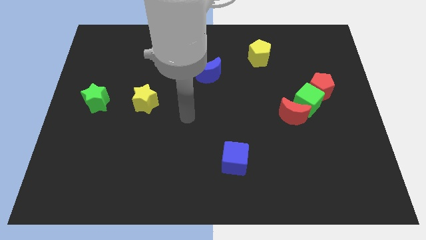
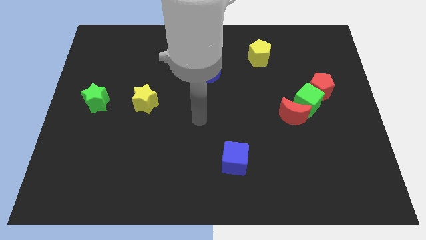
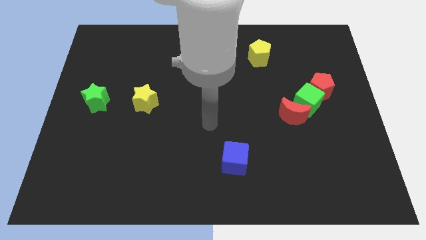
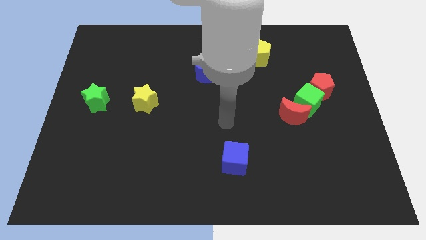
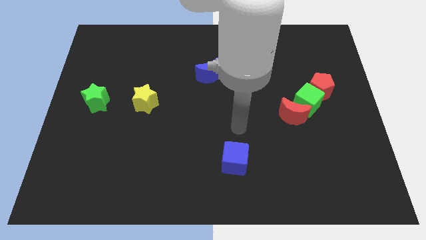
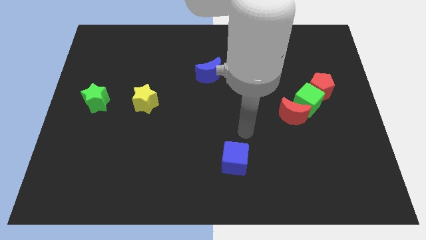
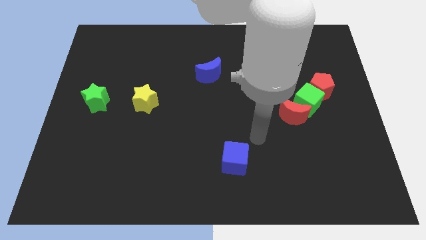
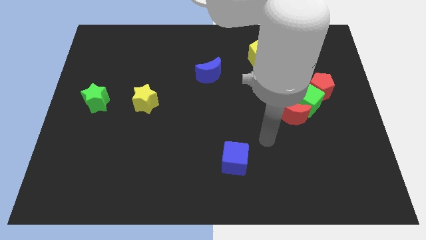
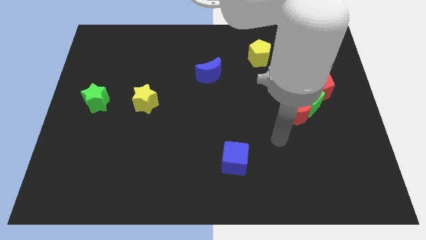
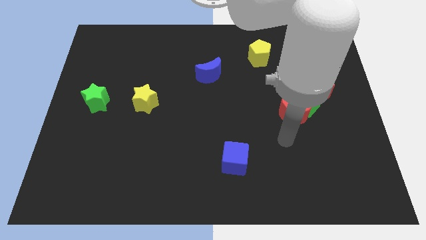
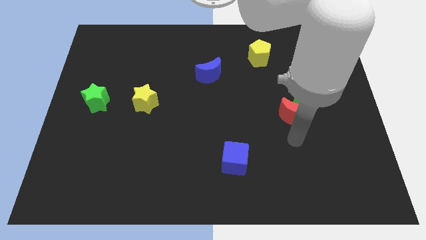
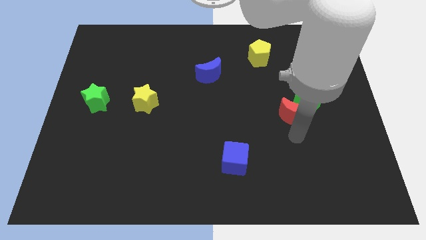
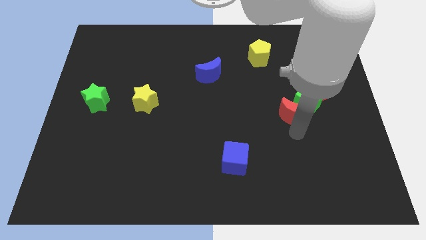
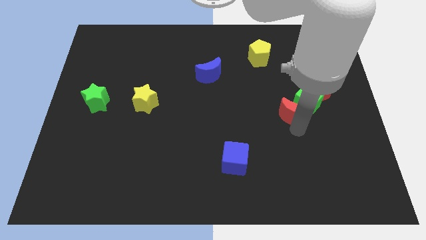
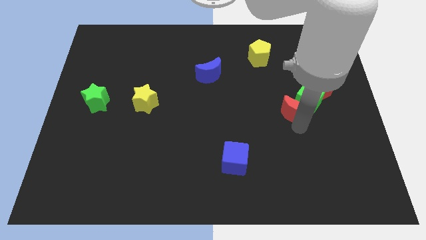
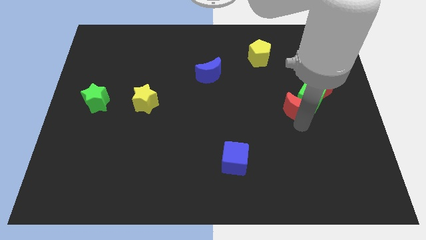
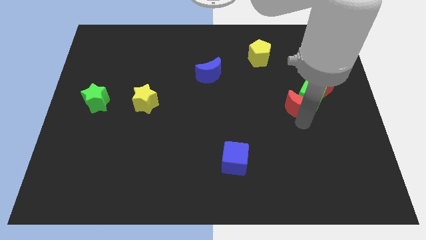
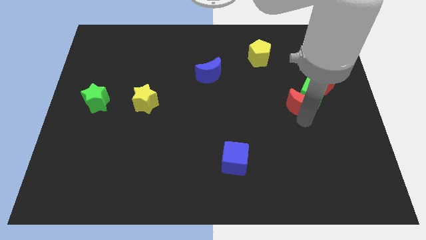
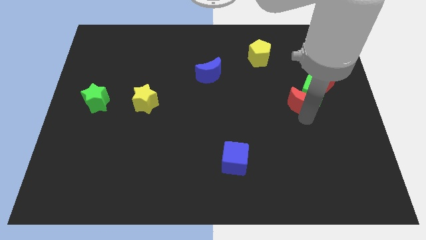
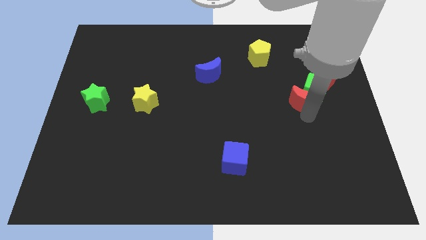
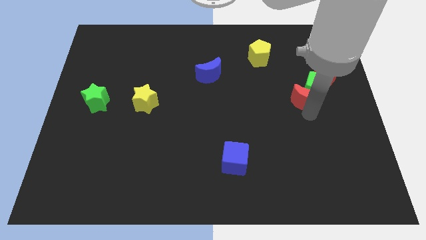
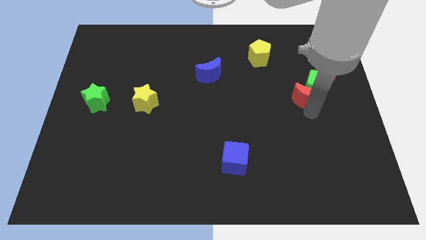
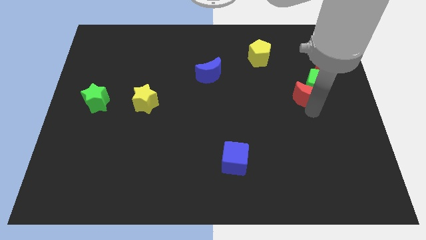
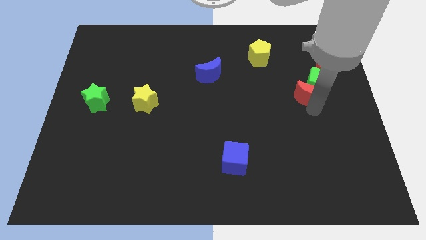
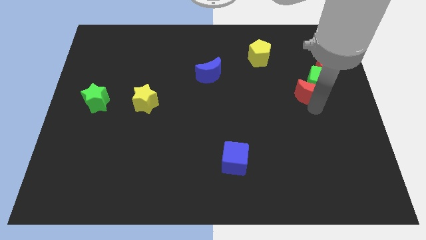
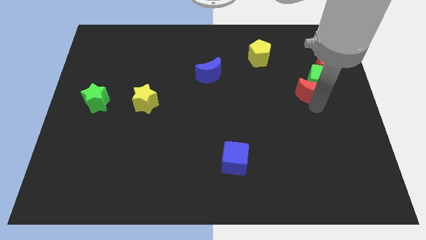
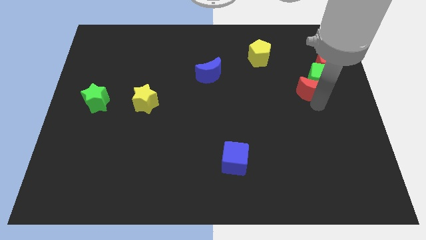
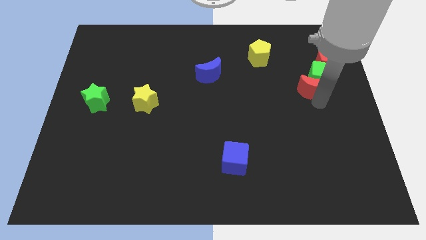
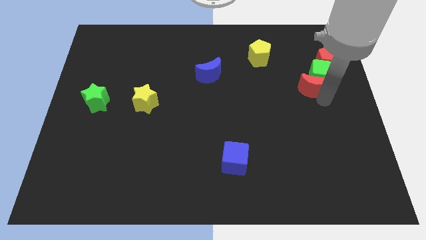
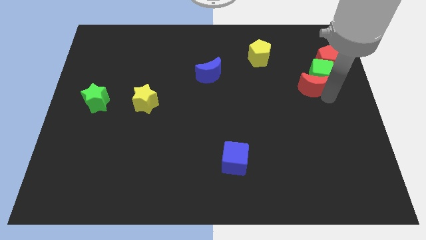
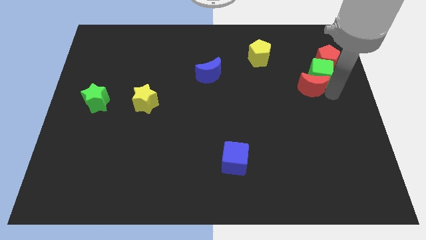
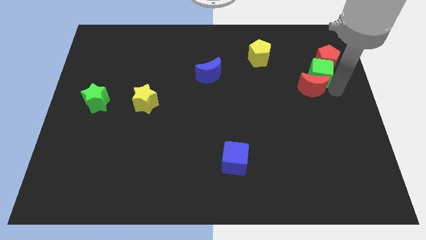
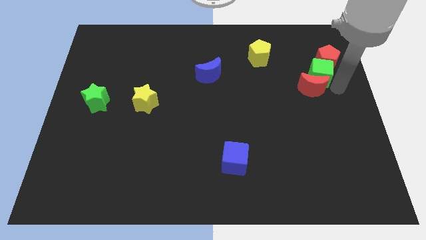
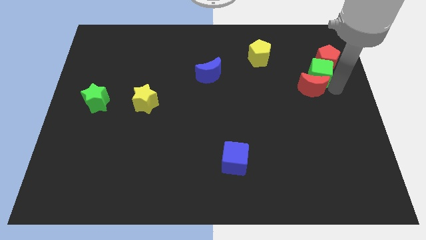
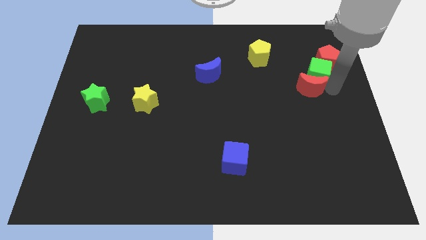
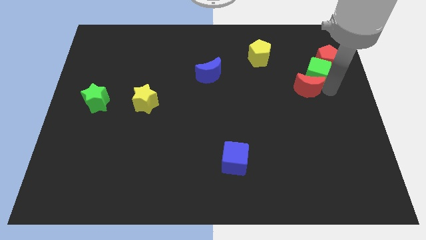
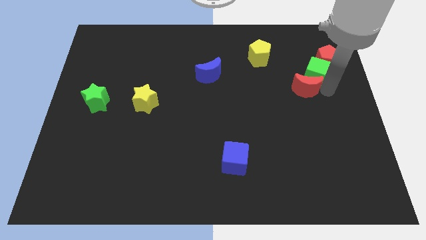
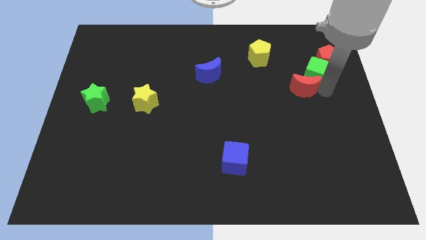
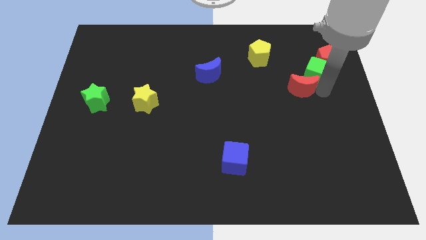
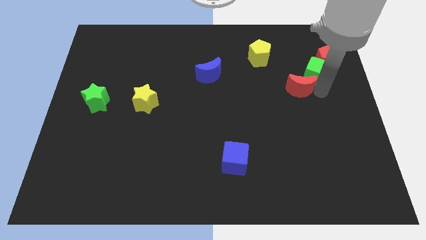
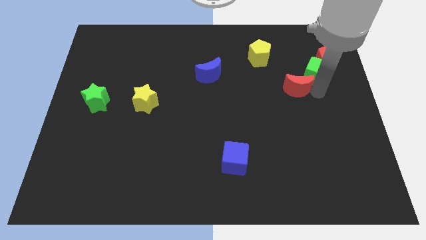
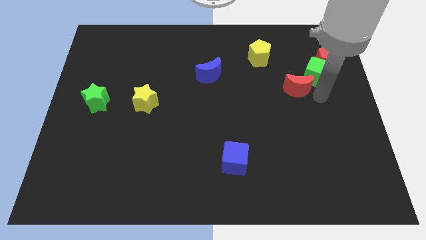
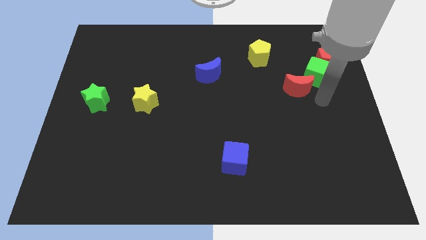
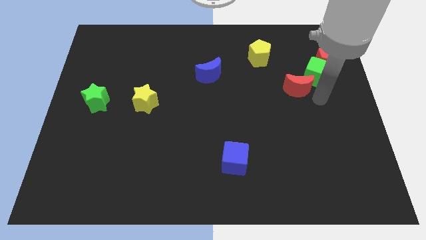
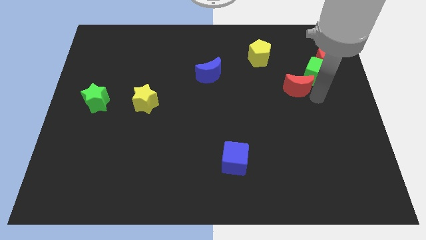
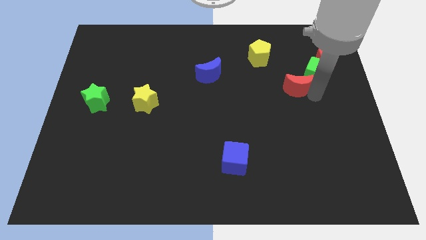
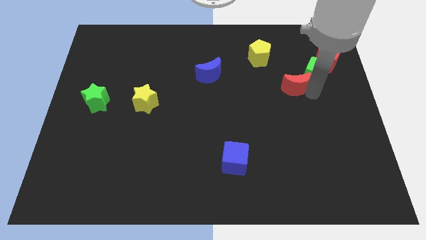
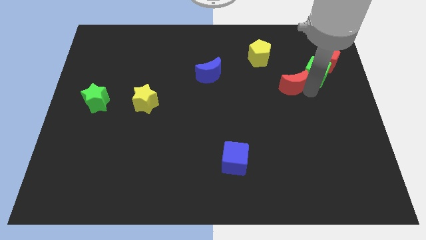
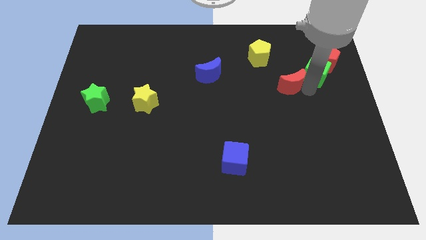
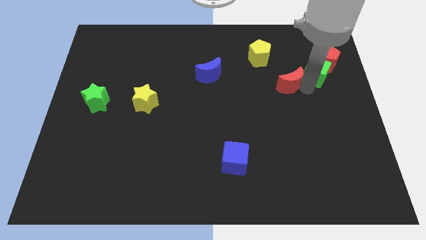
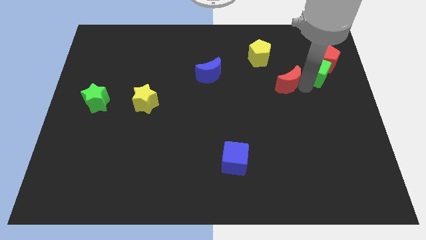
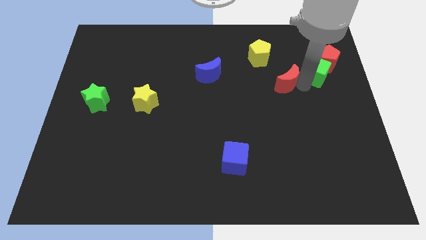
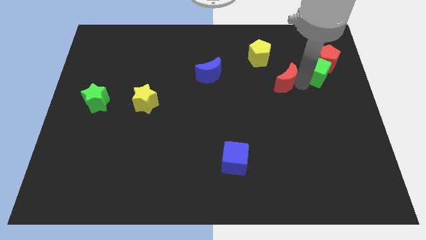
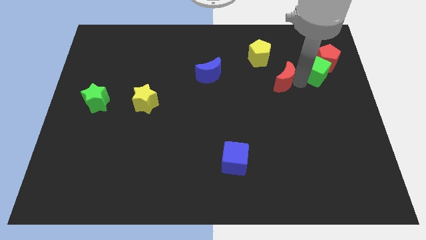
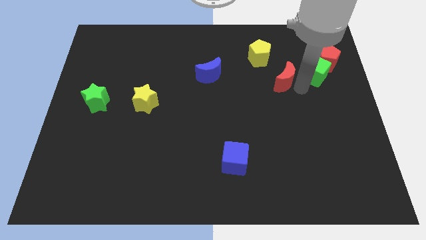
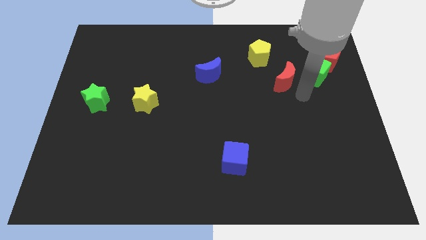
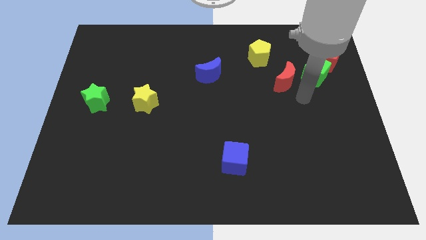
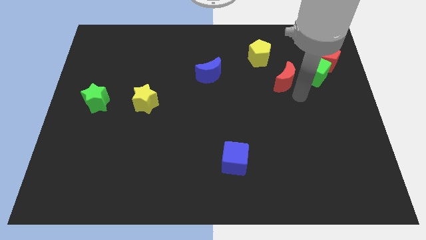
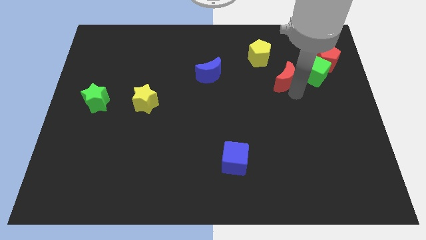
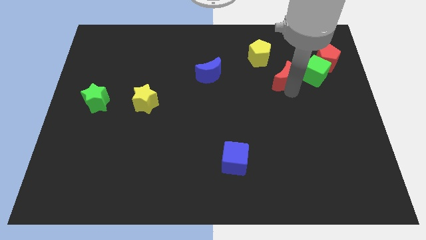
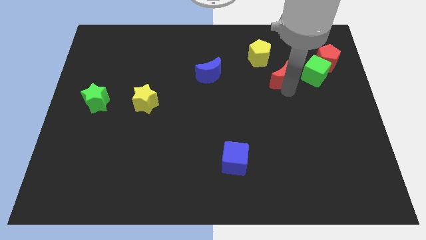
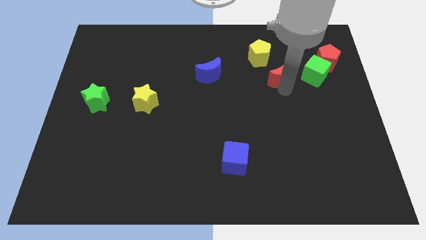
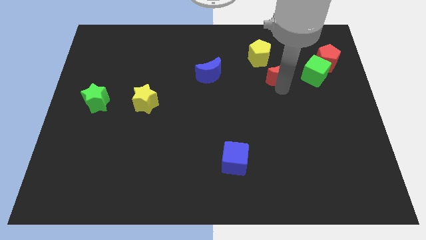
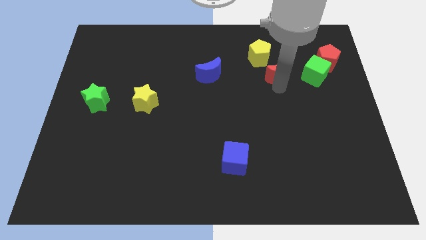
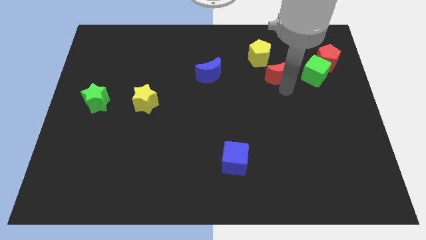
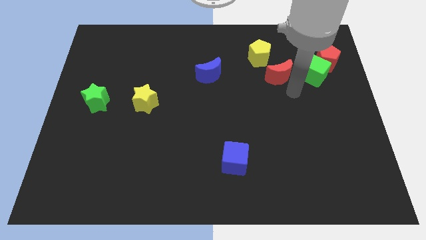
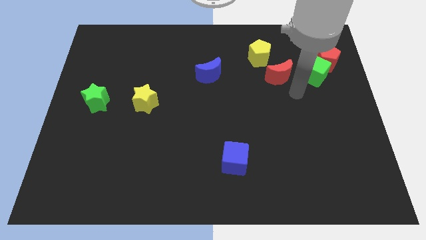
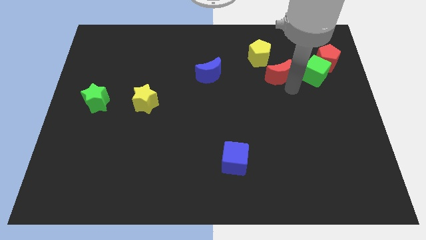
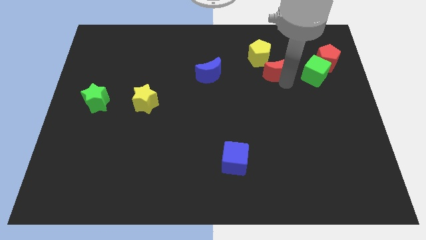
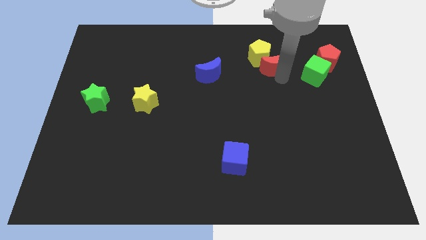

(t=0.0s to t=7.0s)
put the red moon next to the yellow pentagon
